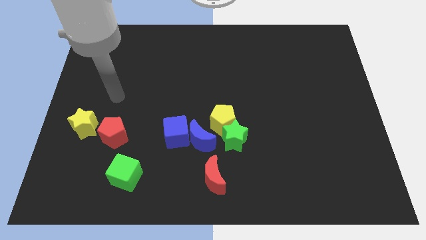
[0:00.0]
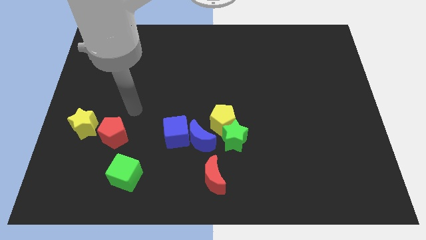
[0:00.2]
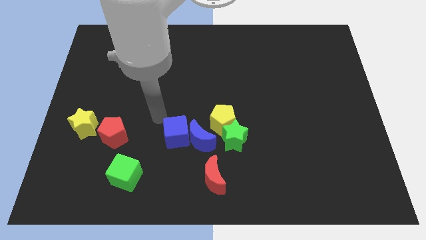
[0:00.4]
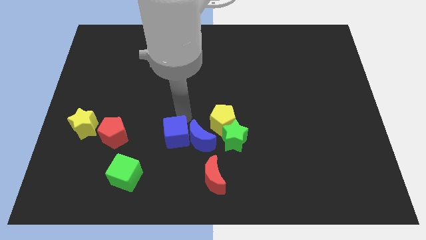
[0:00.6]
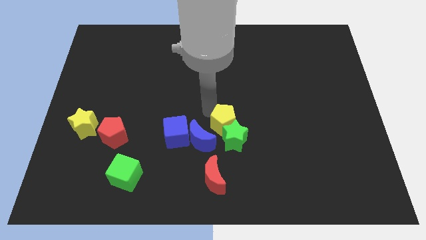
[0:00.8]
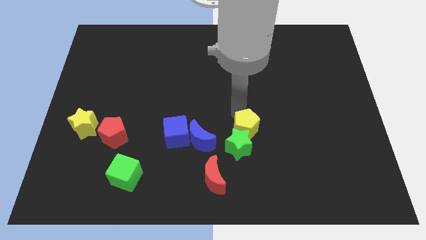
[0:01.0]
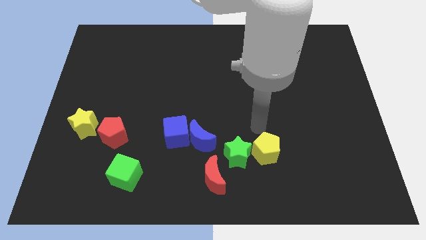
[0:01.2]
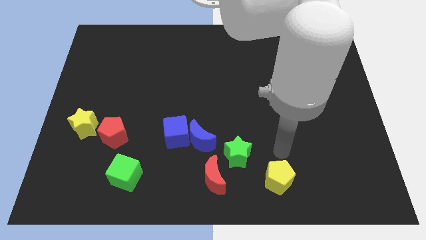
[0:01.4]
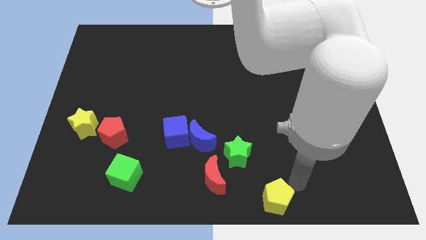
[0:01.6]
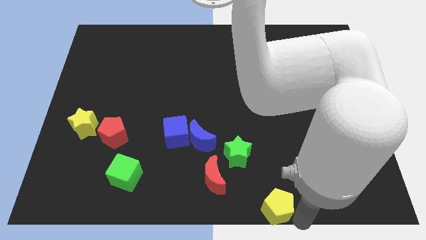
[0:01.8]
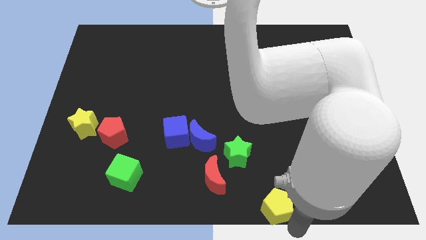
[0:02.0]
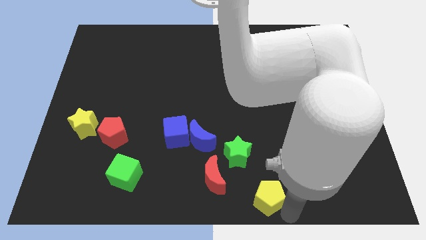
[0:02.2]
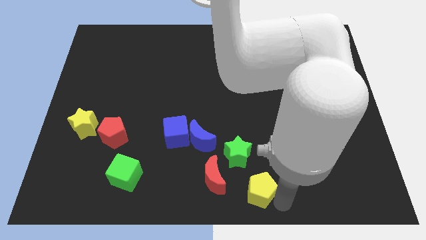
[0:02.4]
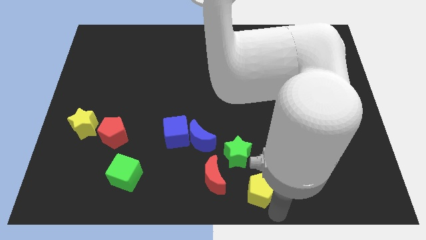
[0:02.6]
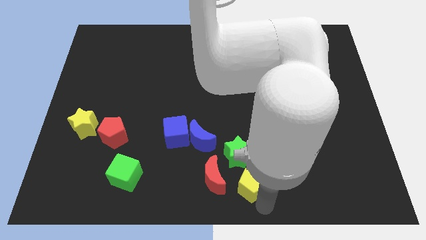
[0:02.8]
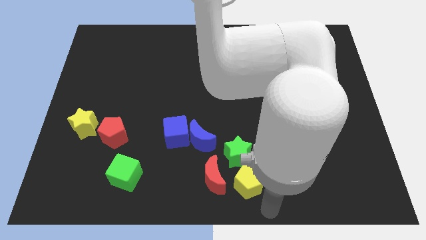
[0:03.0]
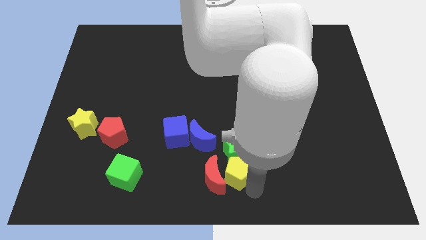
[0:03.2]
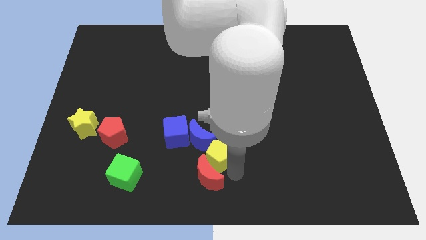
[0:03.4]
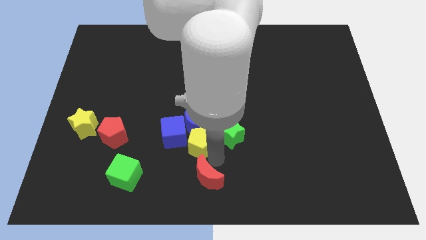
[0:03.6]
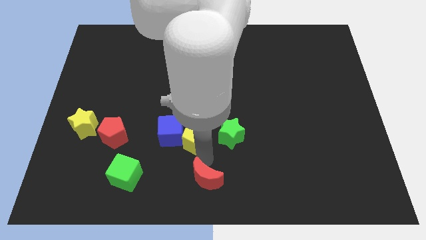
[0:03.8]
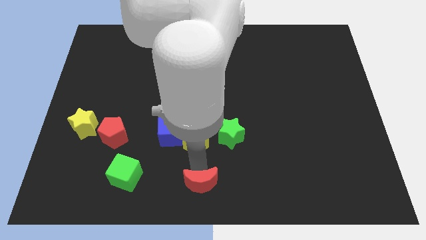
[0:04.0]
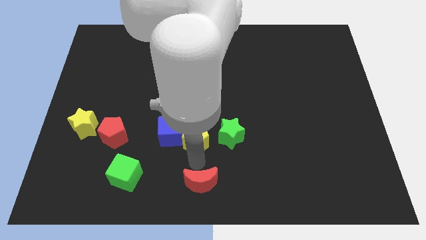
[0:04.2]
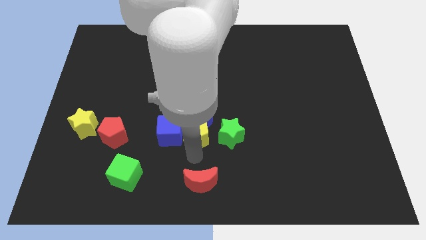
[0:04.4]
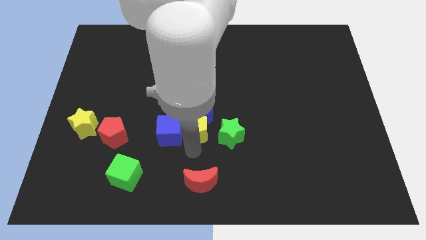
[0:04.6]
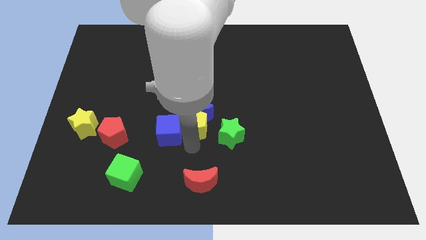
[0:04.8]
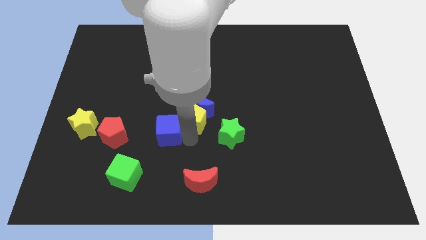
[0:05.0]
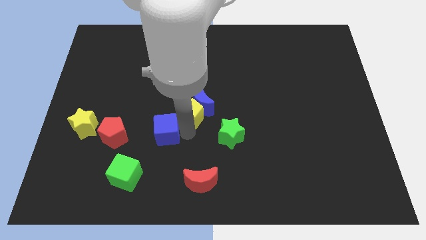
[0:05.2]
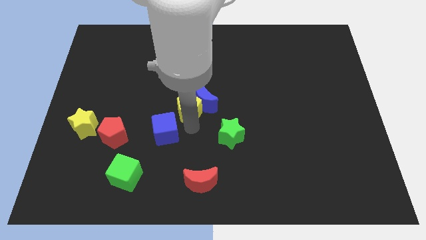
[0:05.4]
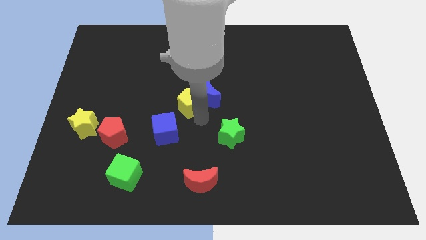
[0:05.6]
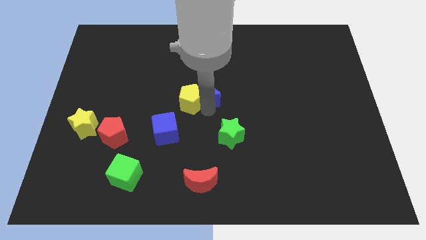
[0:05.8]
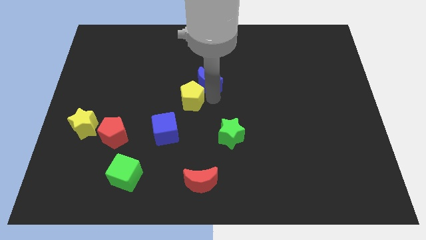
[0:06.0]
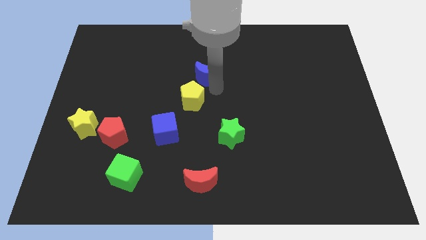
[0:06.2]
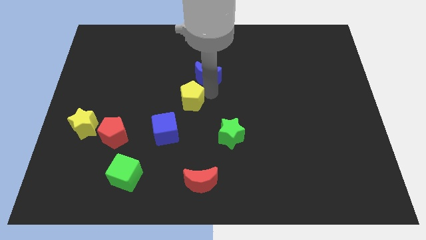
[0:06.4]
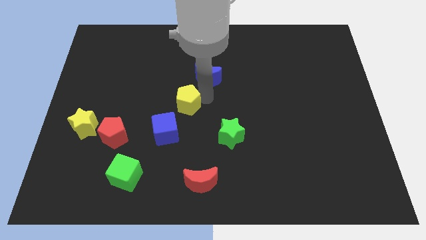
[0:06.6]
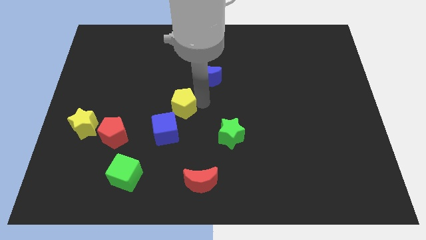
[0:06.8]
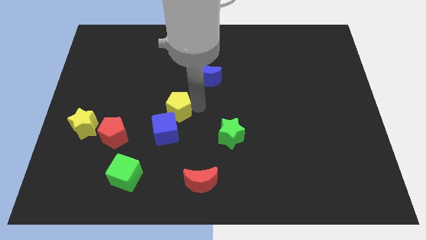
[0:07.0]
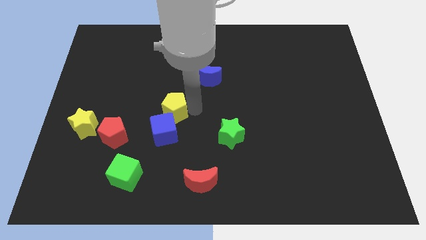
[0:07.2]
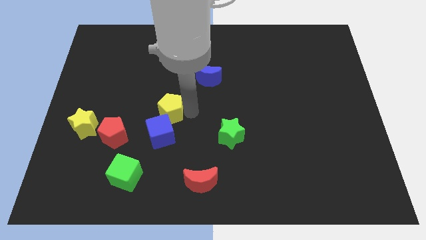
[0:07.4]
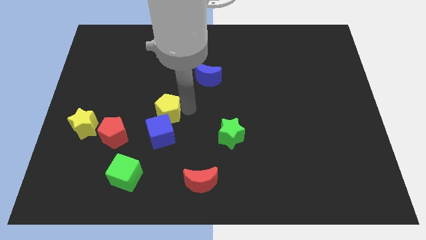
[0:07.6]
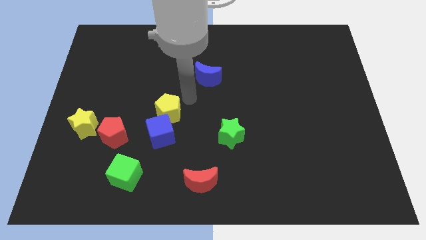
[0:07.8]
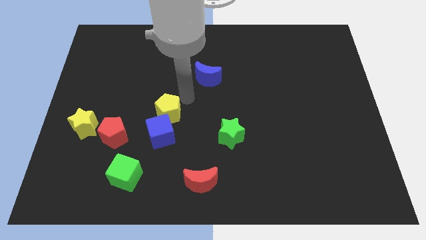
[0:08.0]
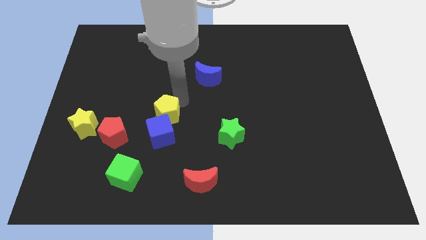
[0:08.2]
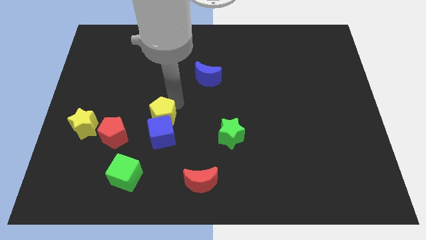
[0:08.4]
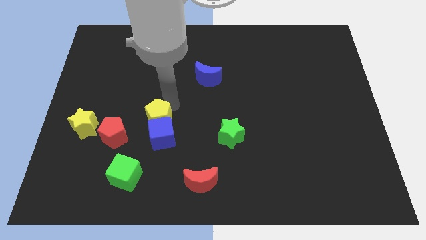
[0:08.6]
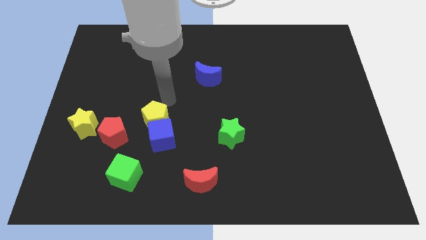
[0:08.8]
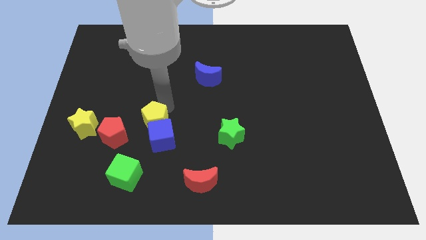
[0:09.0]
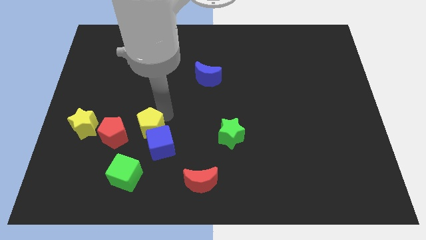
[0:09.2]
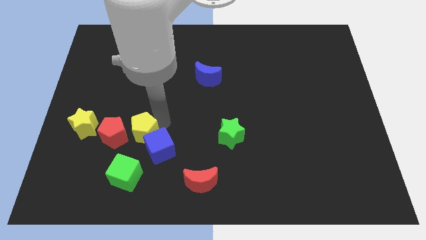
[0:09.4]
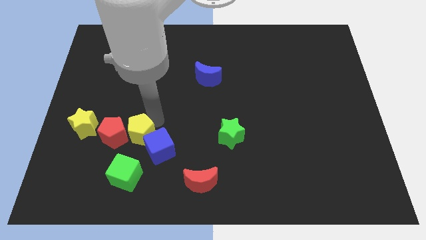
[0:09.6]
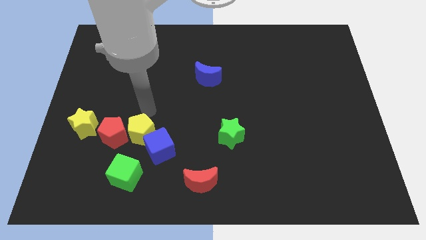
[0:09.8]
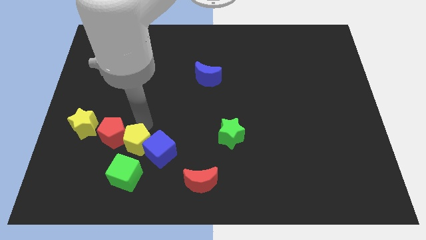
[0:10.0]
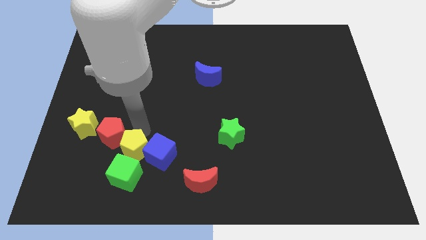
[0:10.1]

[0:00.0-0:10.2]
move the yellow pentagon diagonally down and to the left of the blue cube

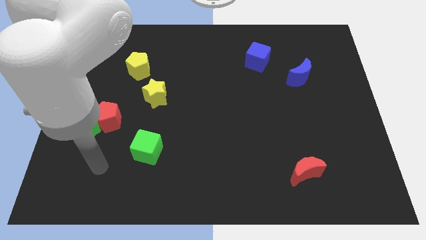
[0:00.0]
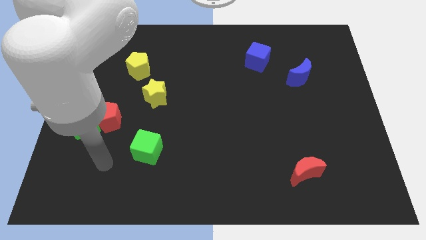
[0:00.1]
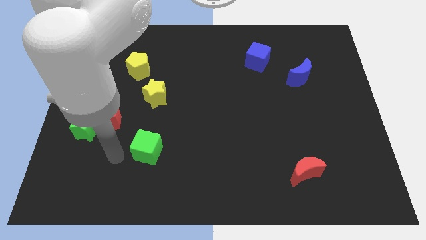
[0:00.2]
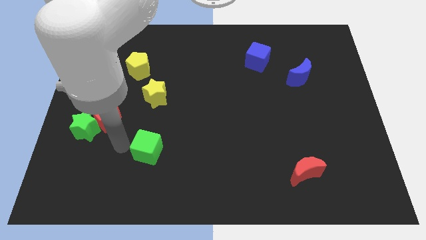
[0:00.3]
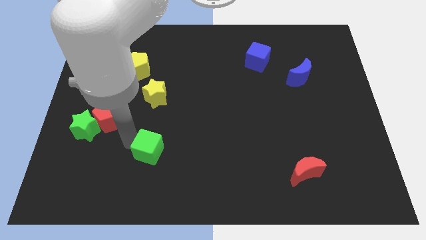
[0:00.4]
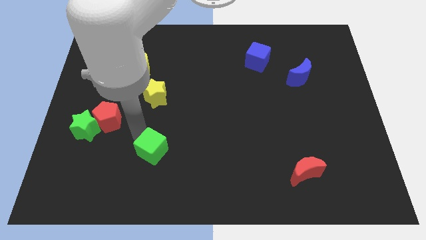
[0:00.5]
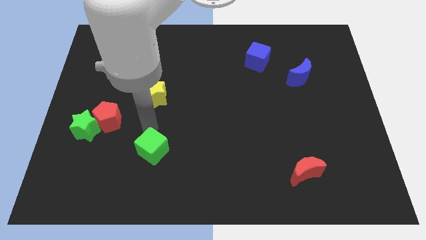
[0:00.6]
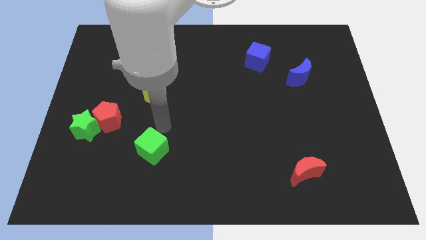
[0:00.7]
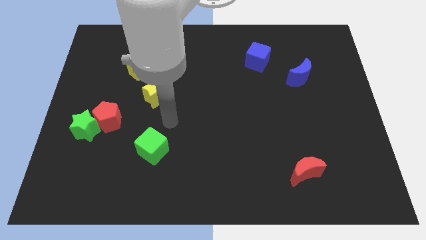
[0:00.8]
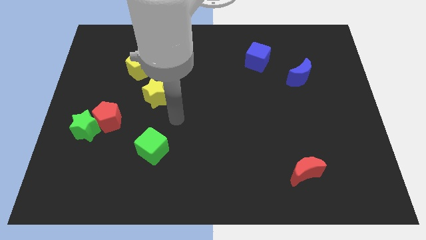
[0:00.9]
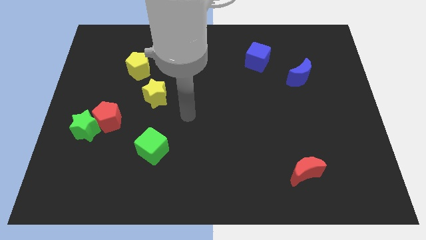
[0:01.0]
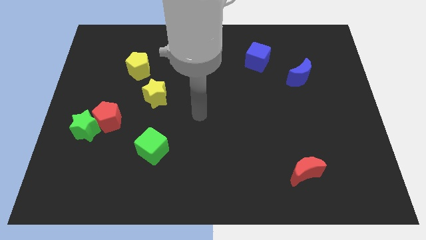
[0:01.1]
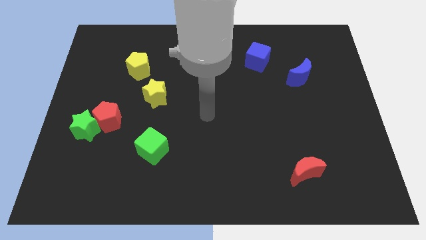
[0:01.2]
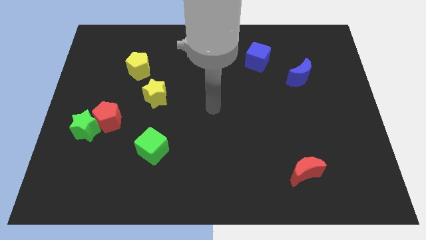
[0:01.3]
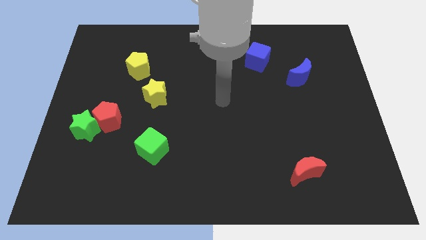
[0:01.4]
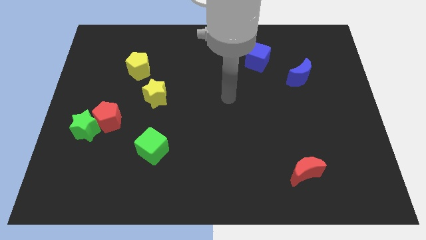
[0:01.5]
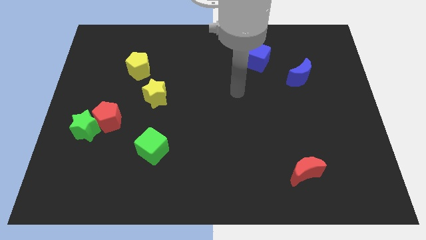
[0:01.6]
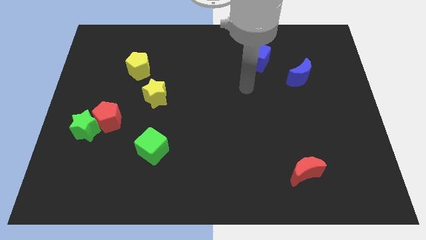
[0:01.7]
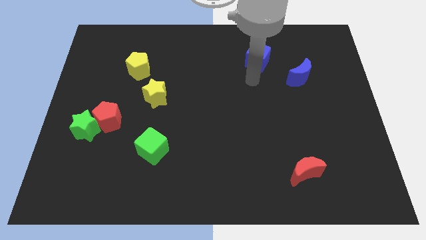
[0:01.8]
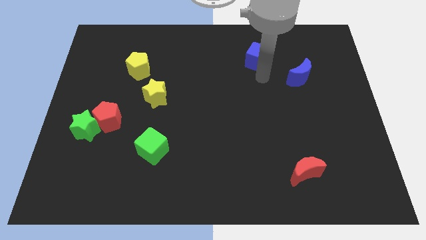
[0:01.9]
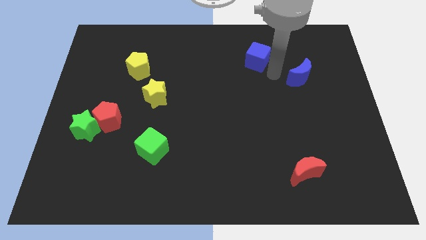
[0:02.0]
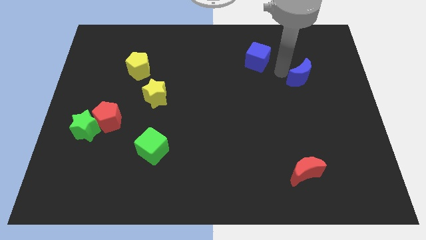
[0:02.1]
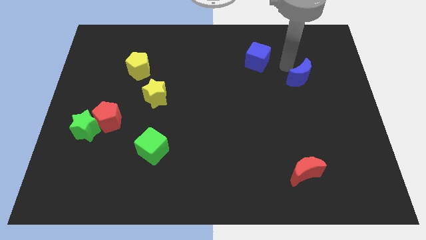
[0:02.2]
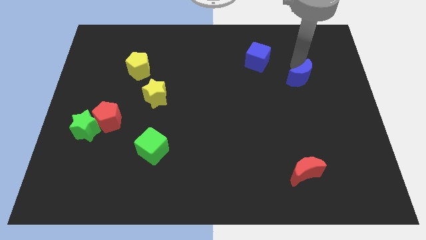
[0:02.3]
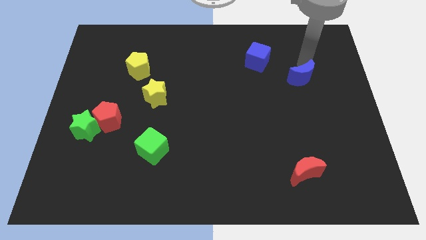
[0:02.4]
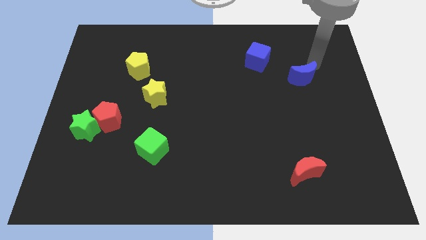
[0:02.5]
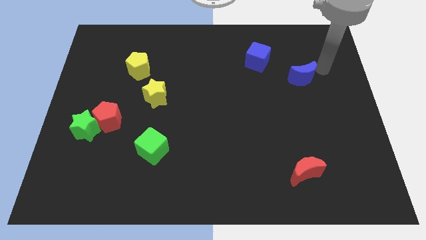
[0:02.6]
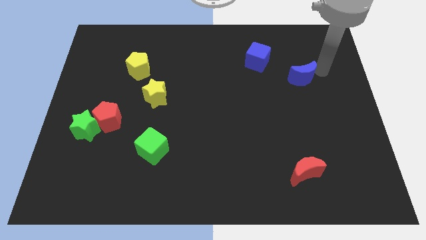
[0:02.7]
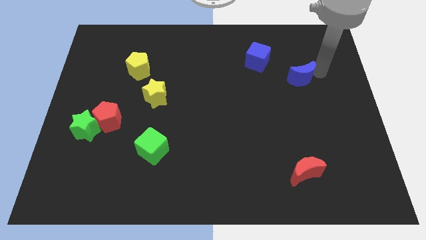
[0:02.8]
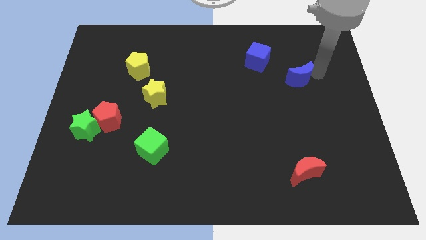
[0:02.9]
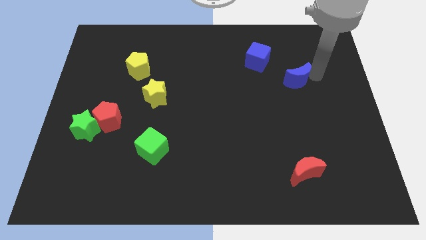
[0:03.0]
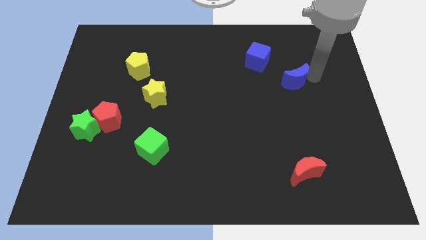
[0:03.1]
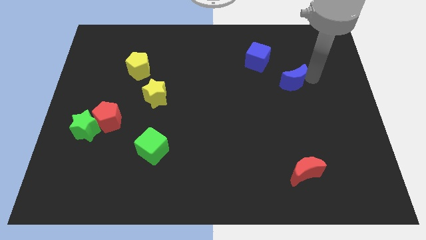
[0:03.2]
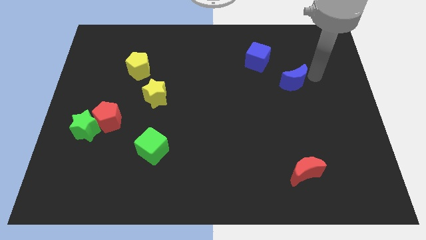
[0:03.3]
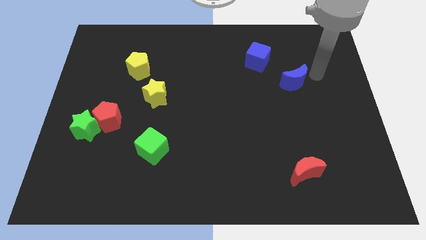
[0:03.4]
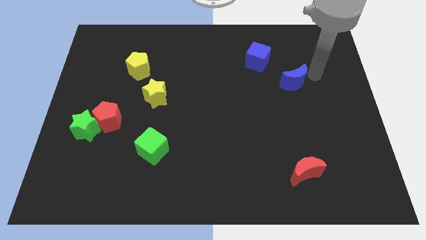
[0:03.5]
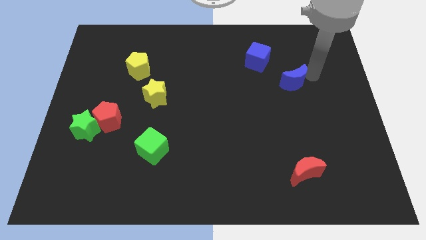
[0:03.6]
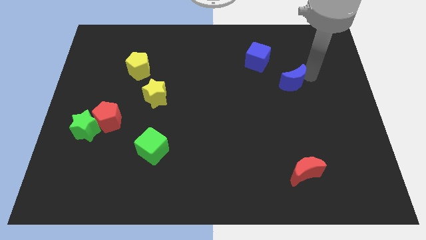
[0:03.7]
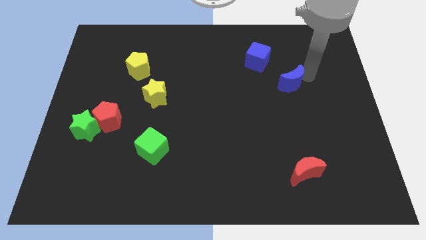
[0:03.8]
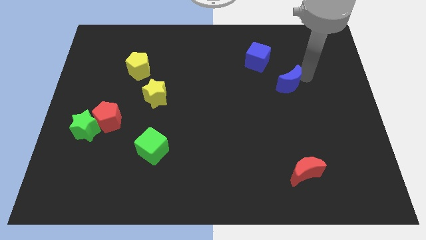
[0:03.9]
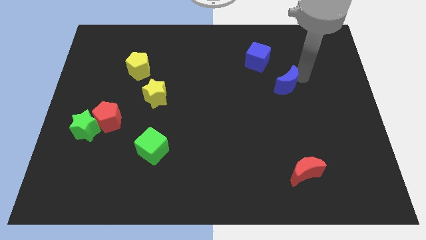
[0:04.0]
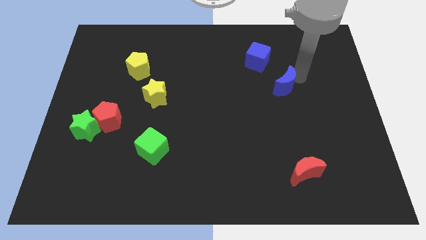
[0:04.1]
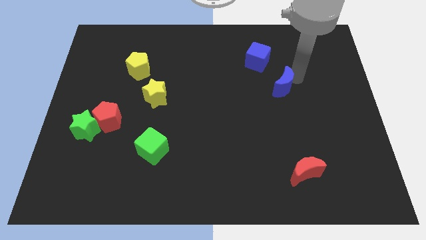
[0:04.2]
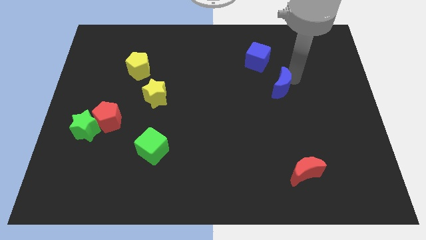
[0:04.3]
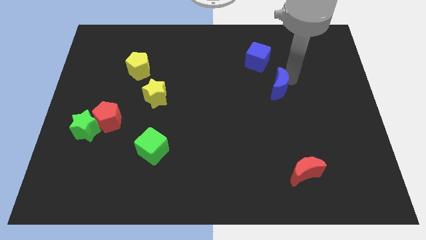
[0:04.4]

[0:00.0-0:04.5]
move the blue moon below the blue cube
